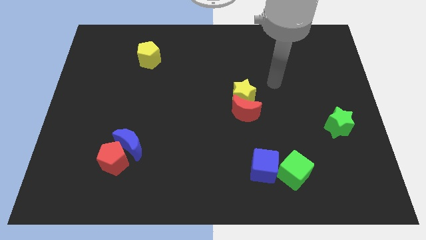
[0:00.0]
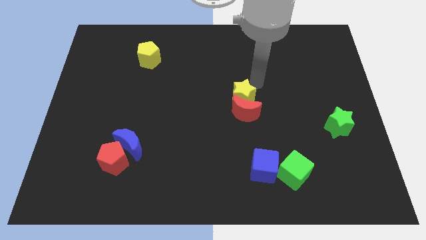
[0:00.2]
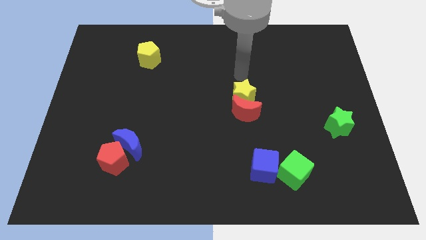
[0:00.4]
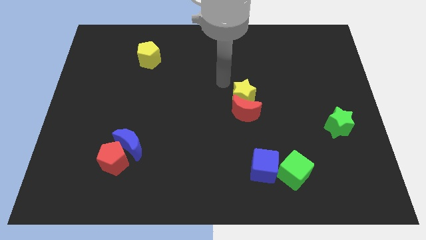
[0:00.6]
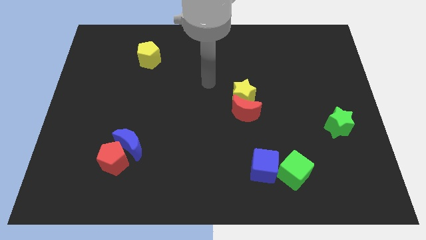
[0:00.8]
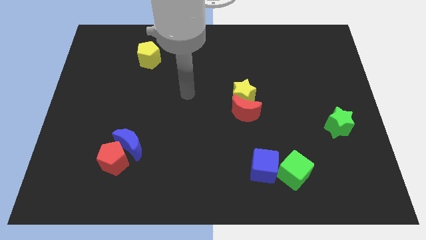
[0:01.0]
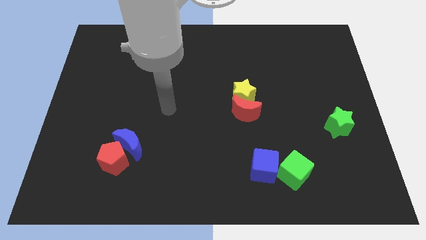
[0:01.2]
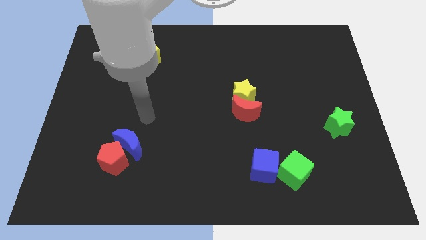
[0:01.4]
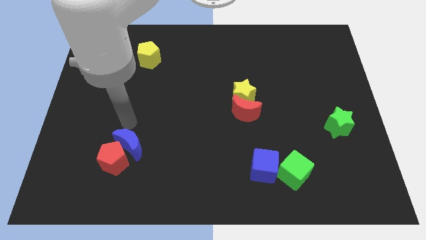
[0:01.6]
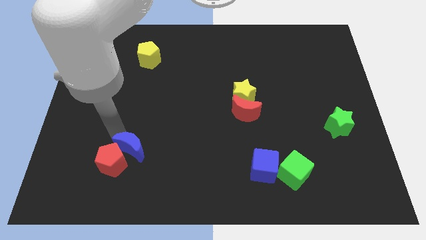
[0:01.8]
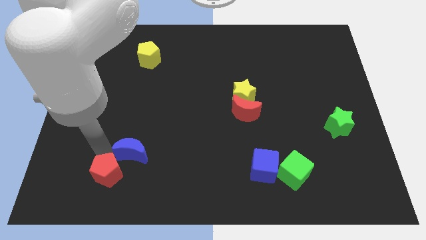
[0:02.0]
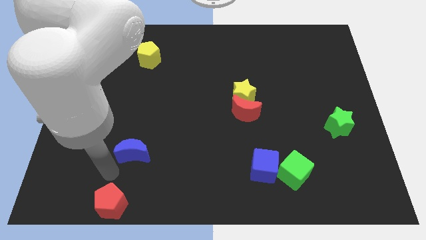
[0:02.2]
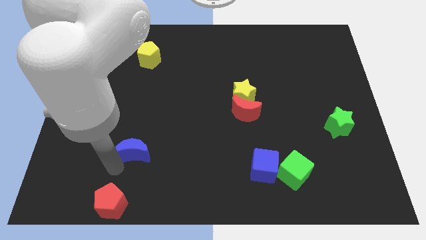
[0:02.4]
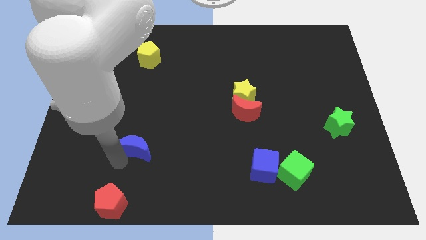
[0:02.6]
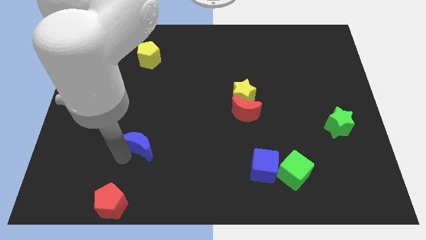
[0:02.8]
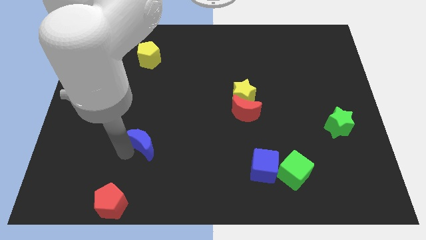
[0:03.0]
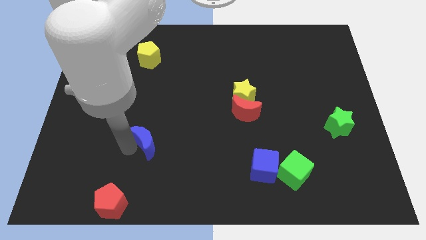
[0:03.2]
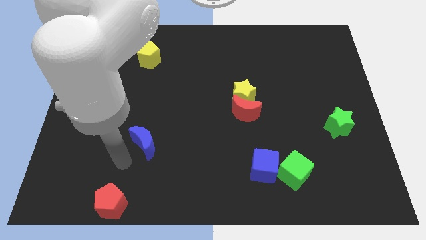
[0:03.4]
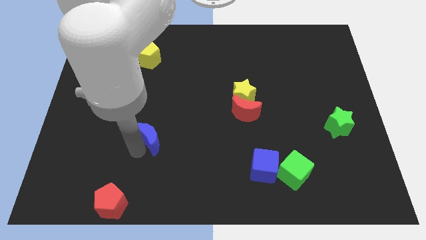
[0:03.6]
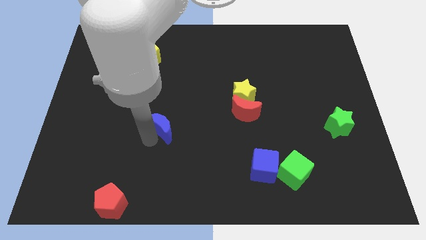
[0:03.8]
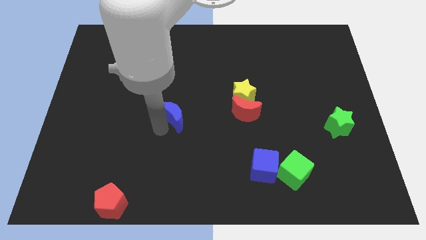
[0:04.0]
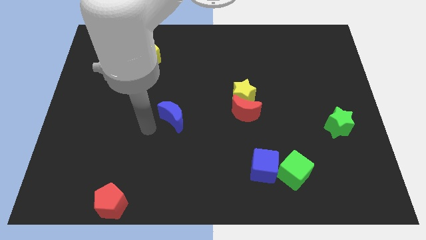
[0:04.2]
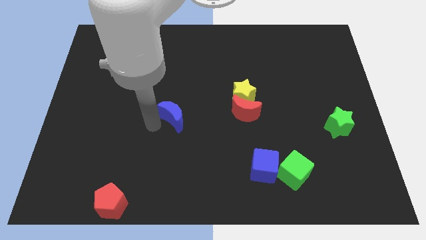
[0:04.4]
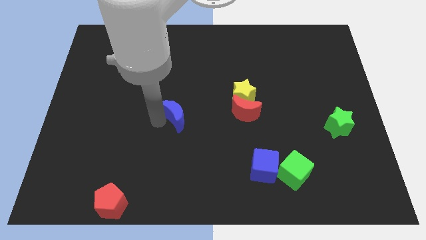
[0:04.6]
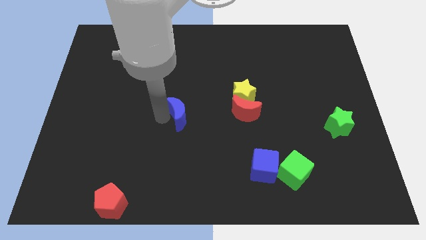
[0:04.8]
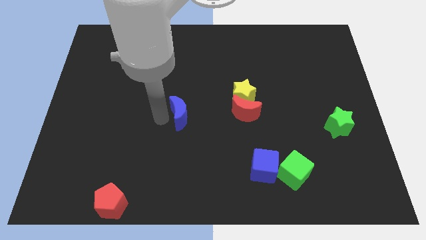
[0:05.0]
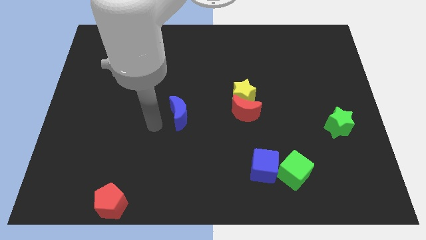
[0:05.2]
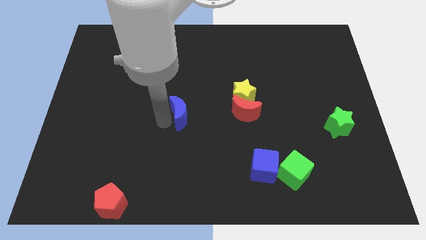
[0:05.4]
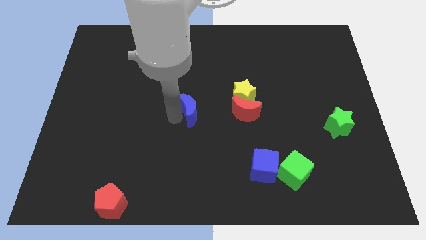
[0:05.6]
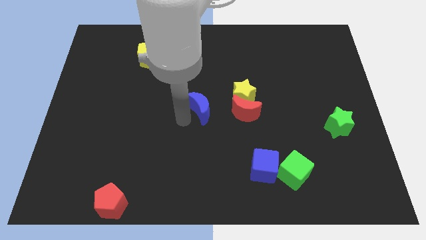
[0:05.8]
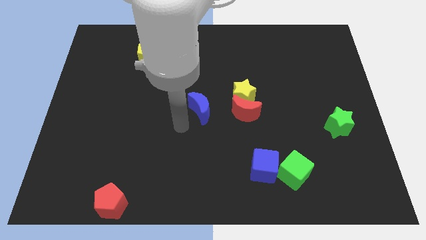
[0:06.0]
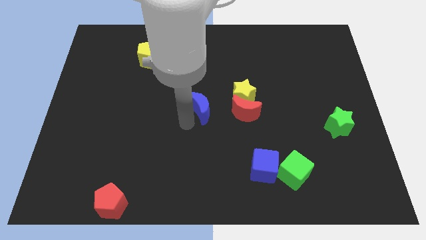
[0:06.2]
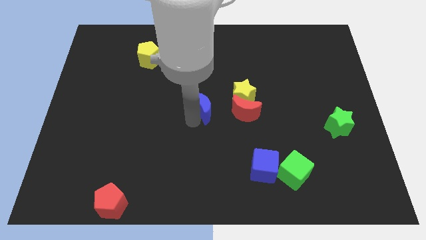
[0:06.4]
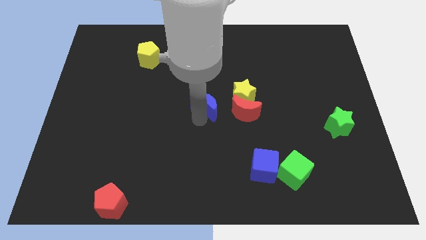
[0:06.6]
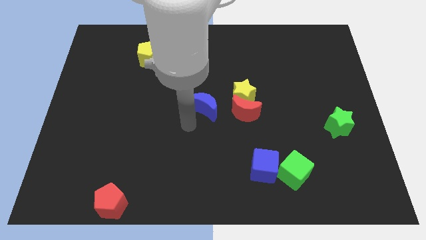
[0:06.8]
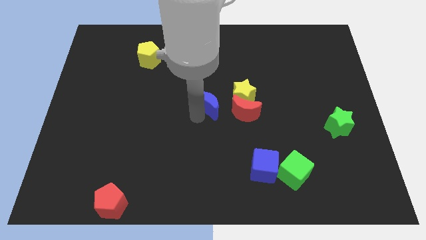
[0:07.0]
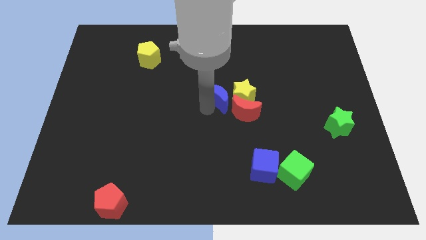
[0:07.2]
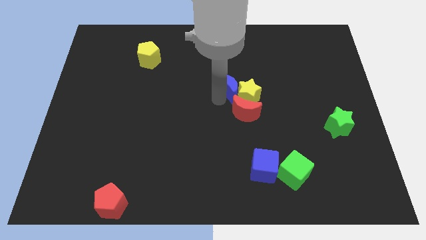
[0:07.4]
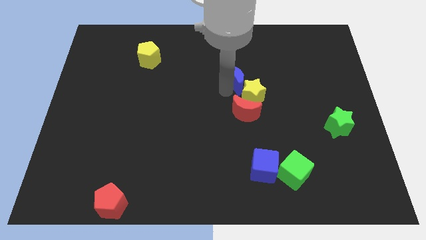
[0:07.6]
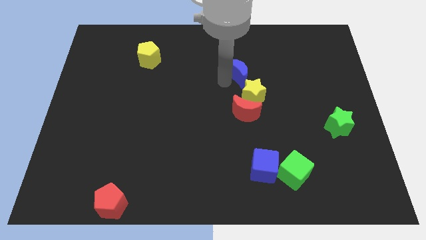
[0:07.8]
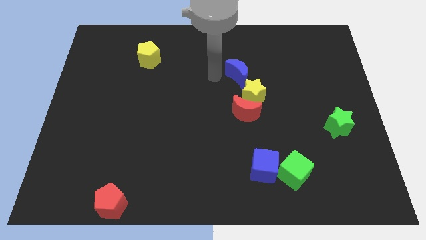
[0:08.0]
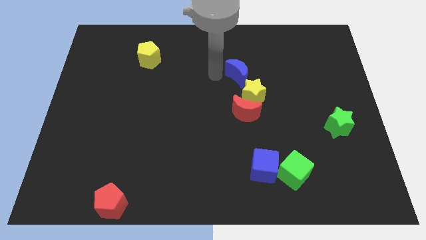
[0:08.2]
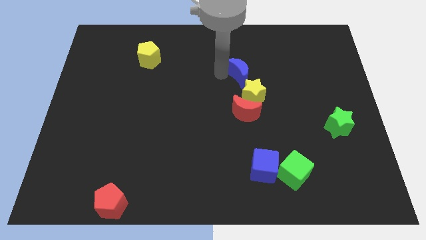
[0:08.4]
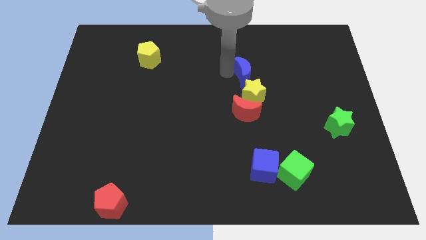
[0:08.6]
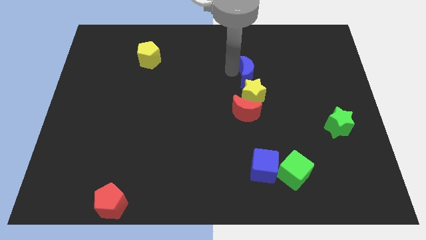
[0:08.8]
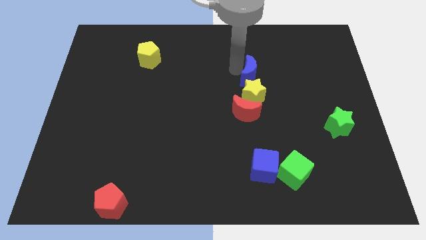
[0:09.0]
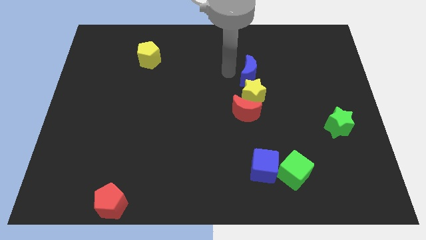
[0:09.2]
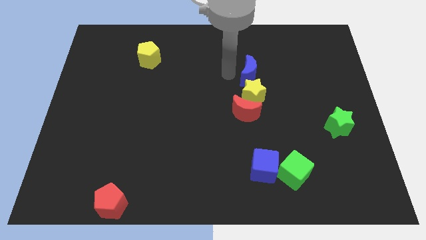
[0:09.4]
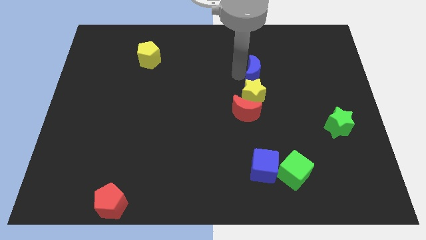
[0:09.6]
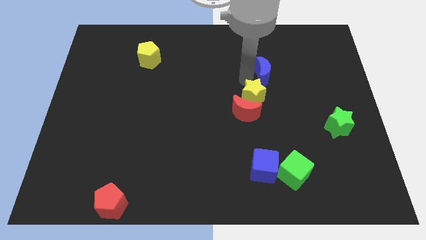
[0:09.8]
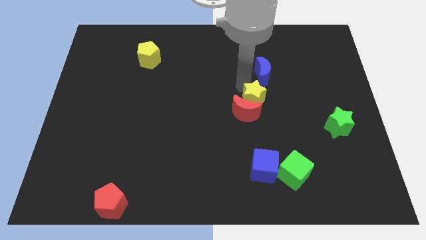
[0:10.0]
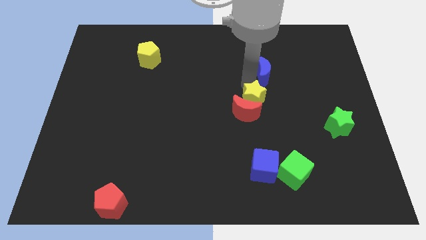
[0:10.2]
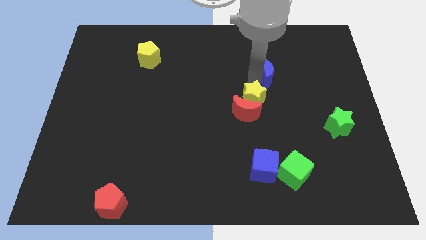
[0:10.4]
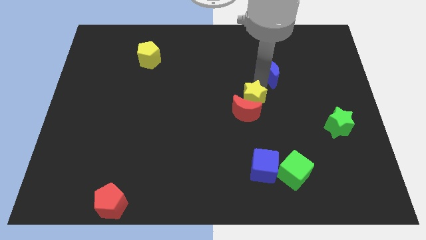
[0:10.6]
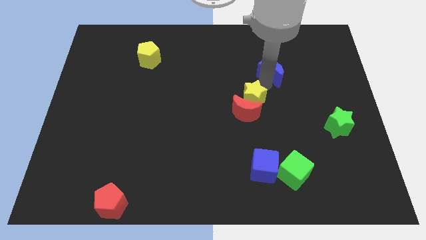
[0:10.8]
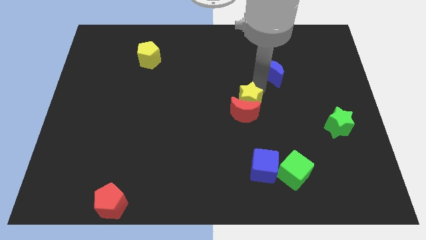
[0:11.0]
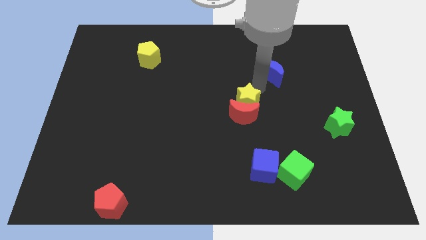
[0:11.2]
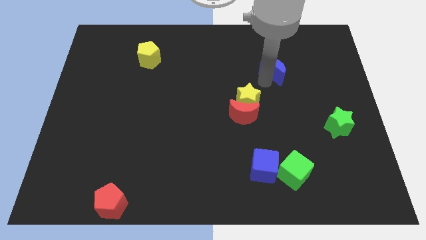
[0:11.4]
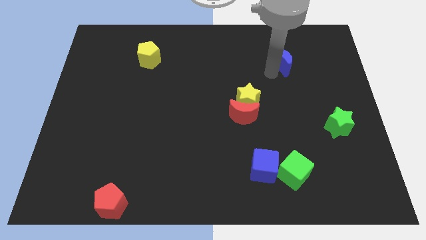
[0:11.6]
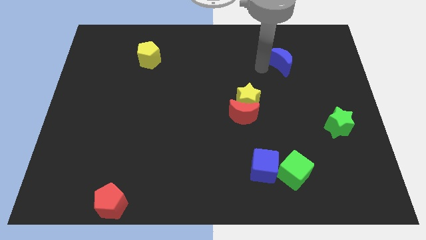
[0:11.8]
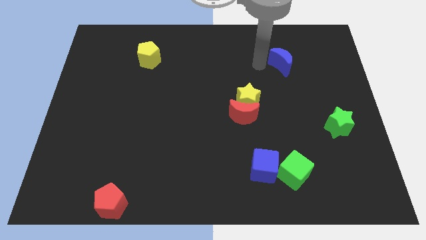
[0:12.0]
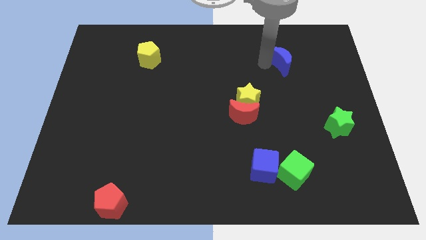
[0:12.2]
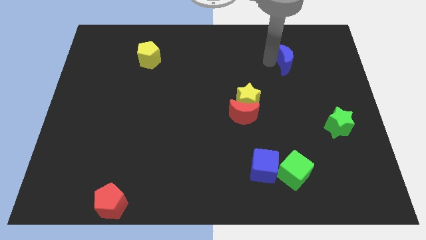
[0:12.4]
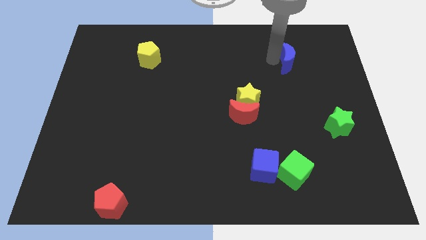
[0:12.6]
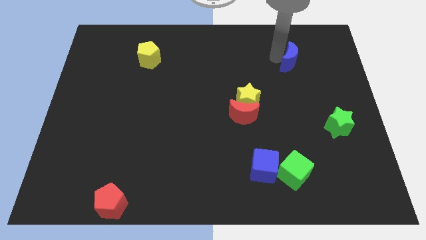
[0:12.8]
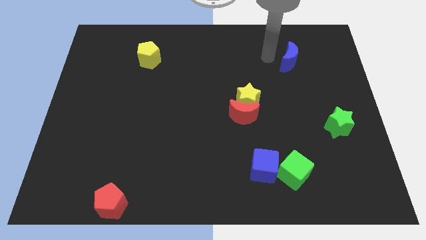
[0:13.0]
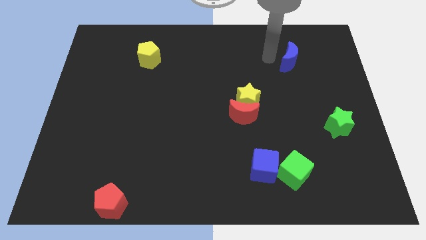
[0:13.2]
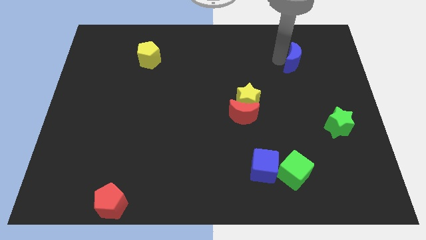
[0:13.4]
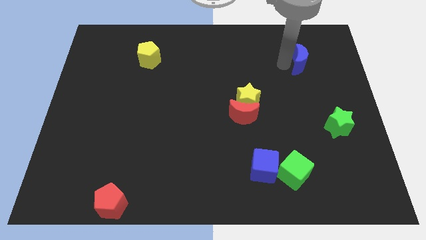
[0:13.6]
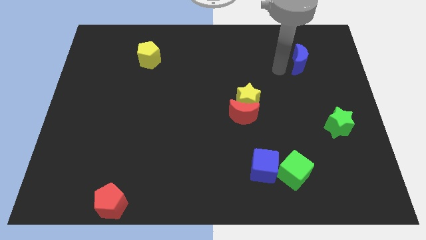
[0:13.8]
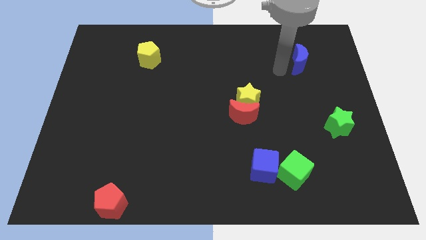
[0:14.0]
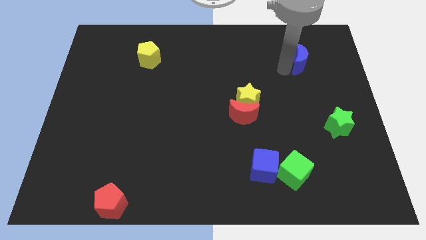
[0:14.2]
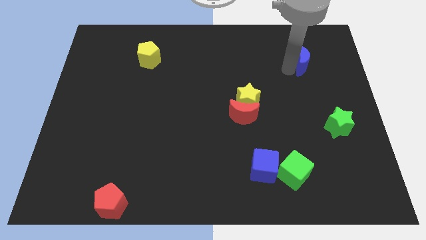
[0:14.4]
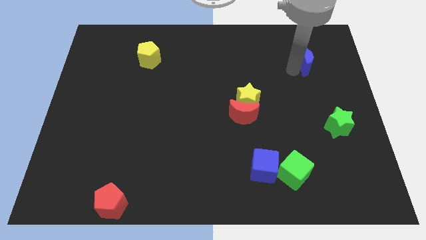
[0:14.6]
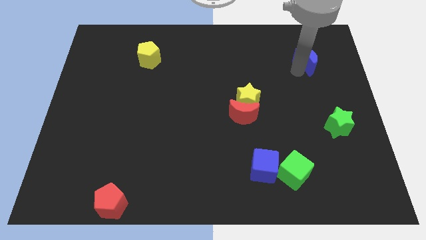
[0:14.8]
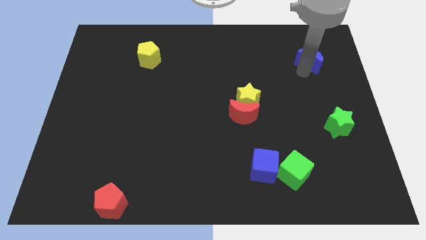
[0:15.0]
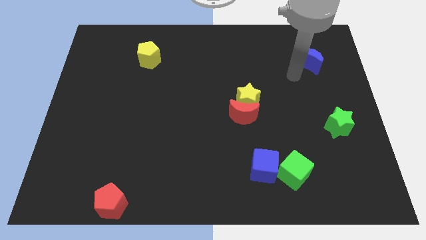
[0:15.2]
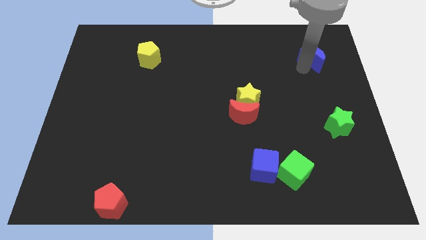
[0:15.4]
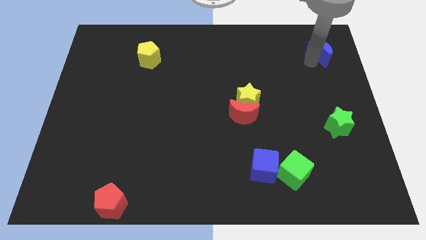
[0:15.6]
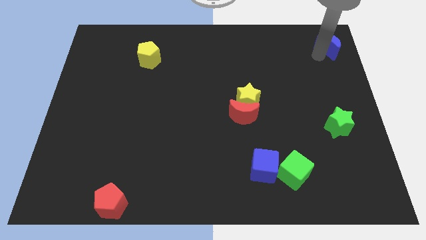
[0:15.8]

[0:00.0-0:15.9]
push the blue moon to the top right of the board
